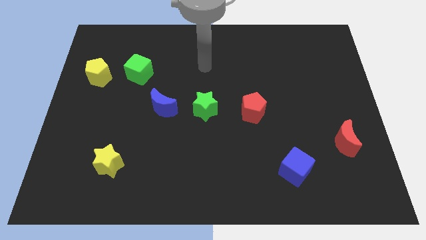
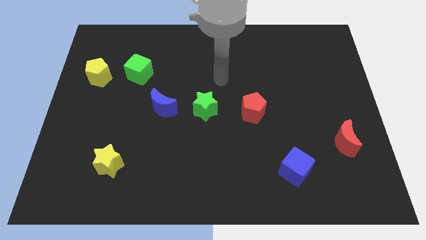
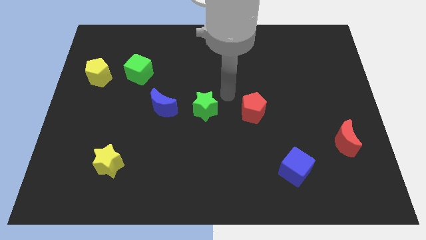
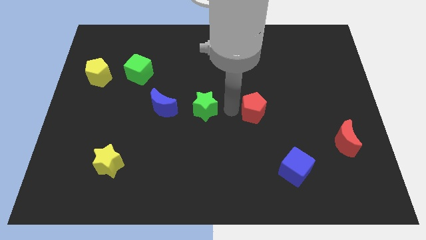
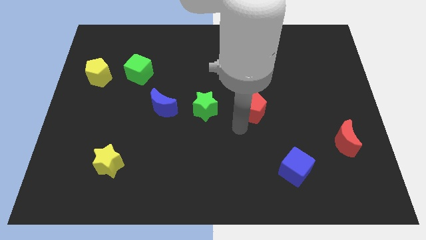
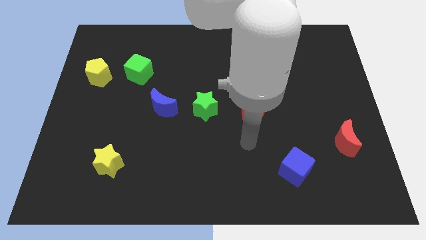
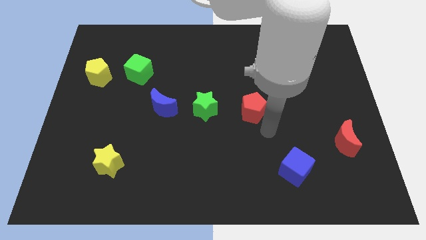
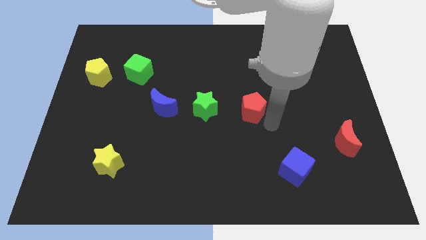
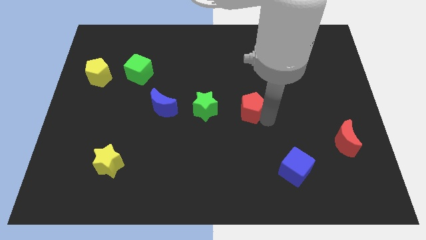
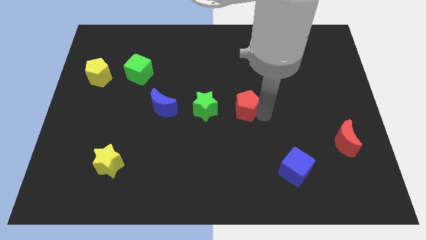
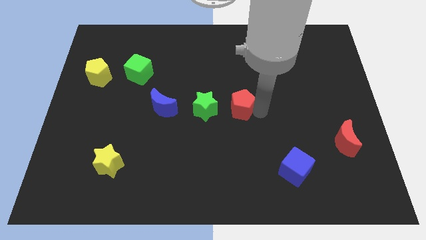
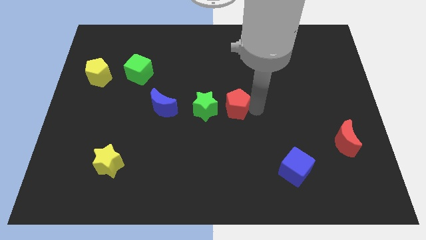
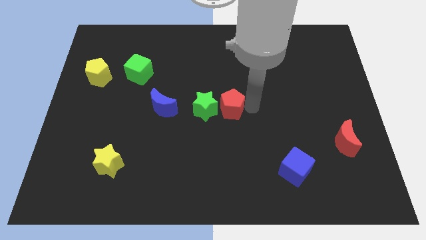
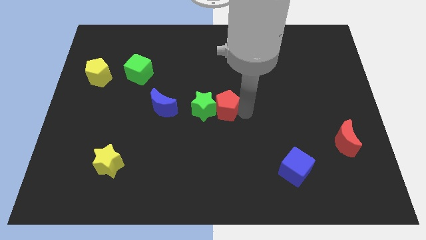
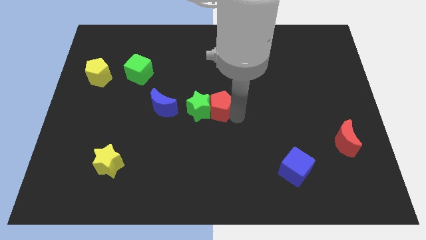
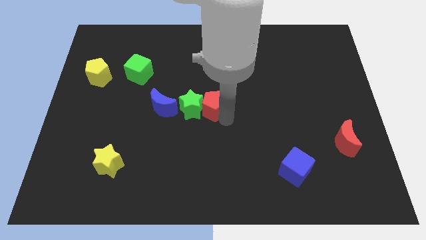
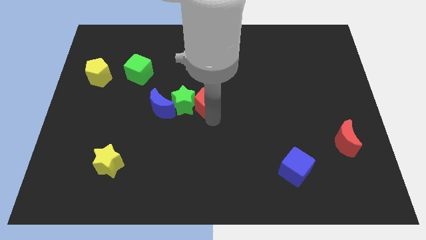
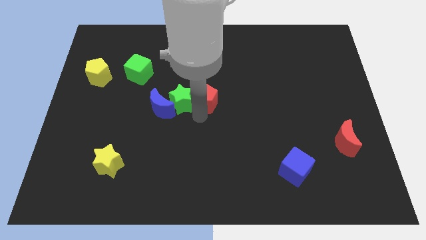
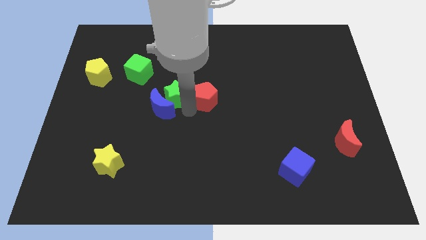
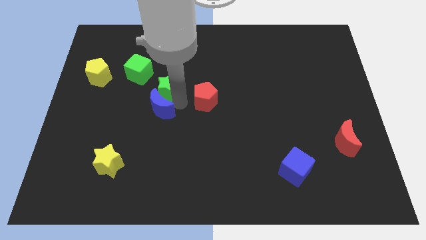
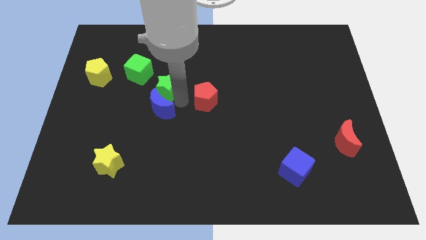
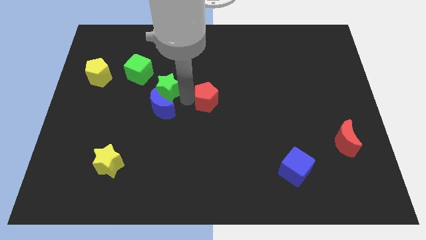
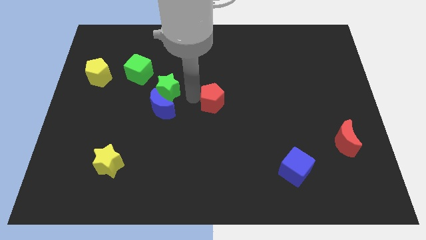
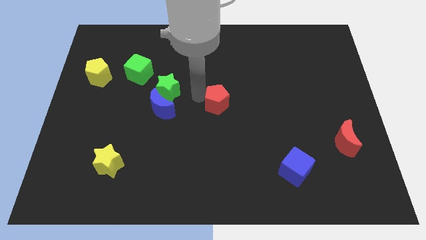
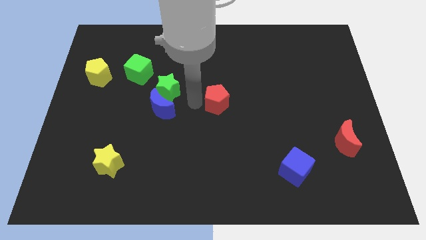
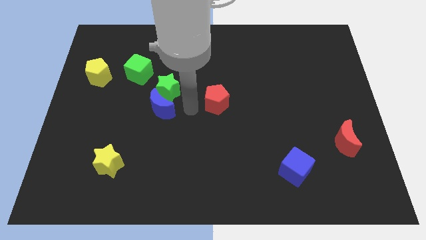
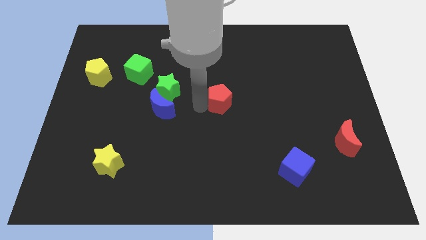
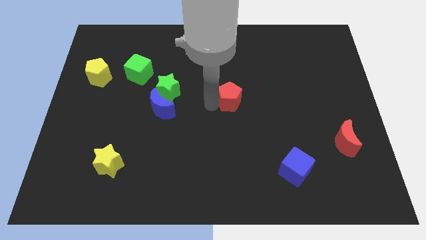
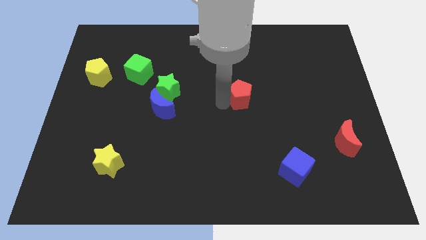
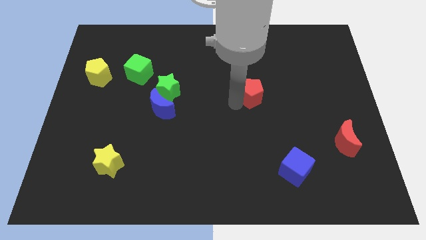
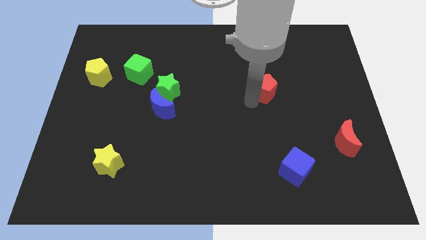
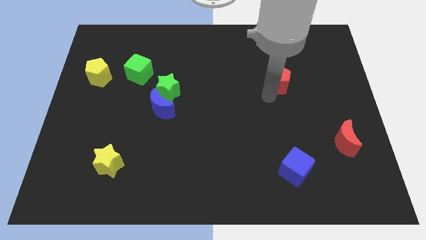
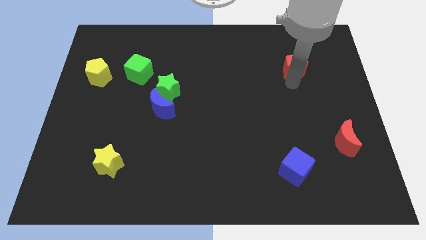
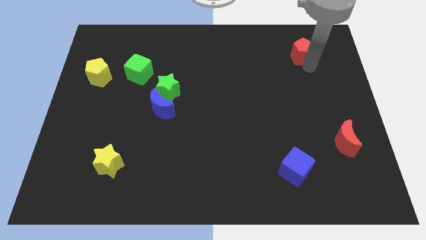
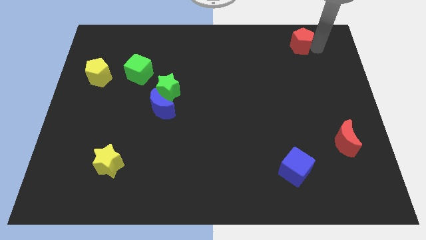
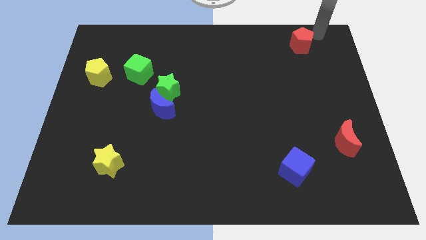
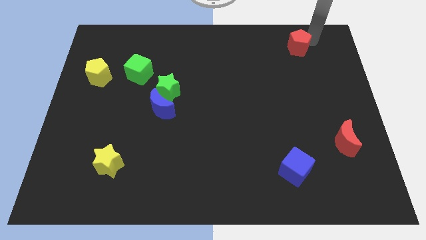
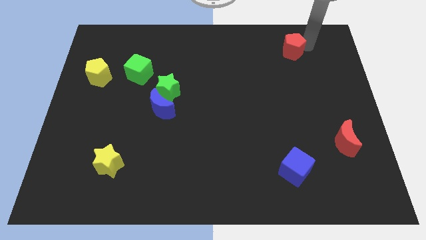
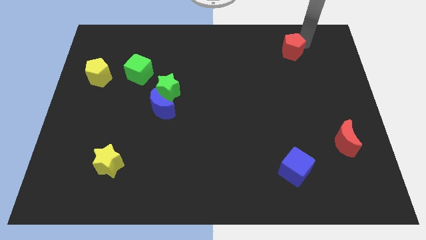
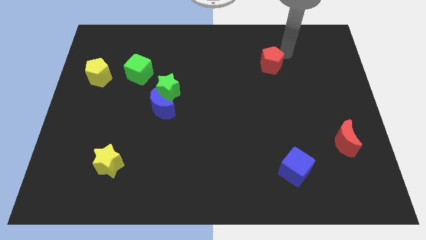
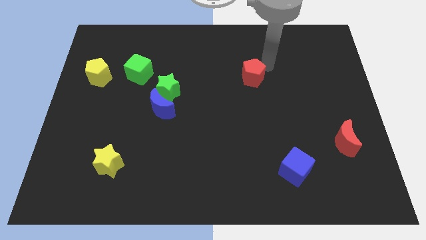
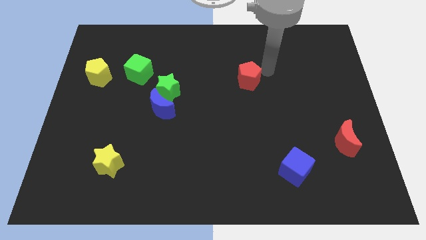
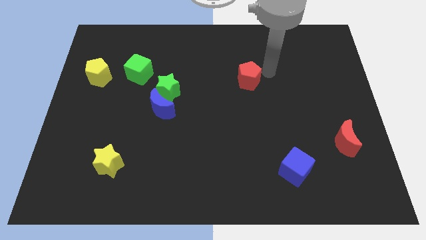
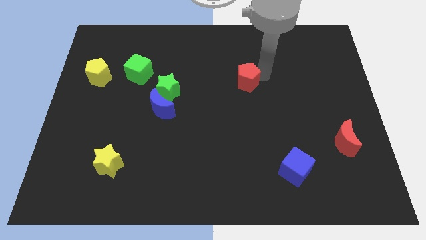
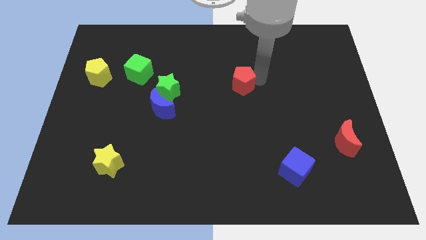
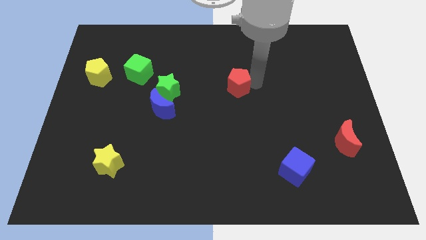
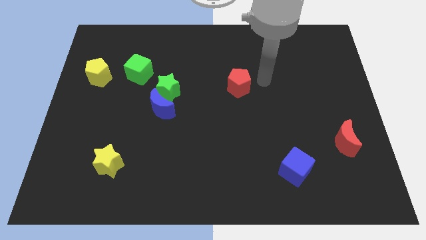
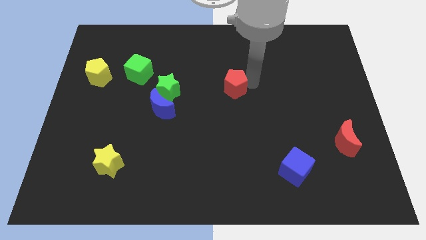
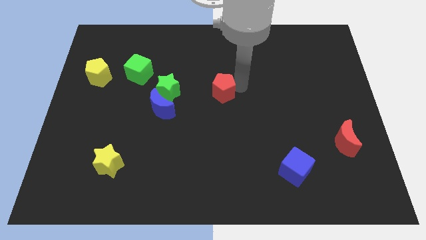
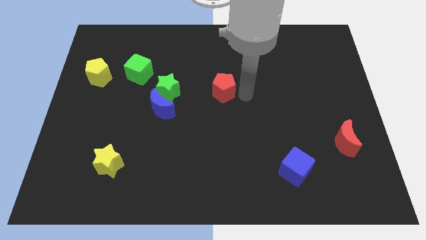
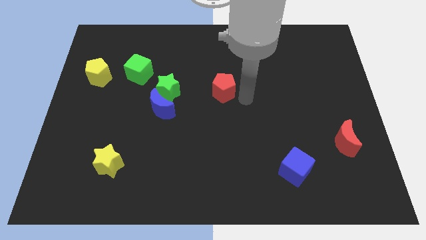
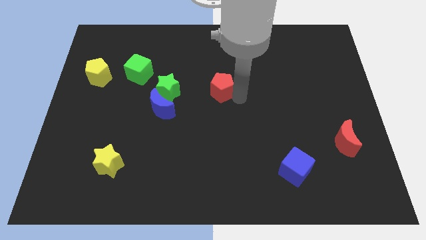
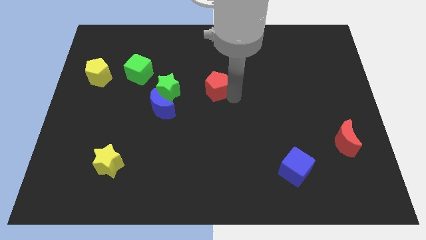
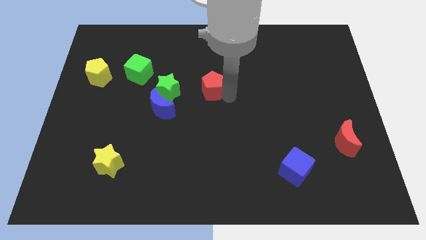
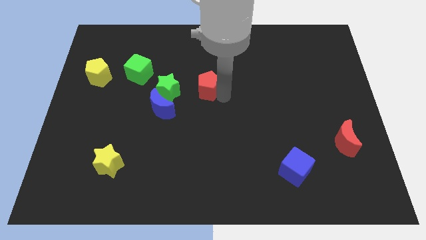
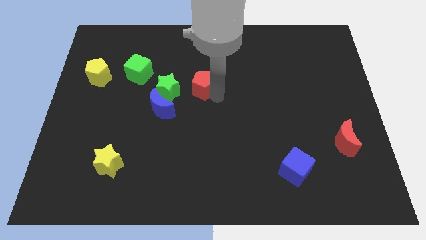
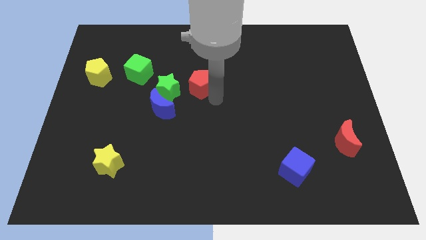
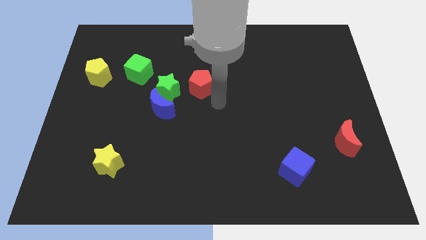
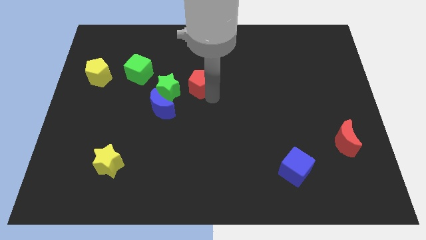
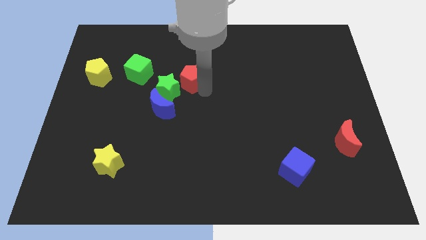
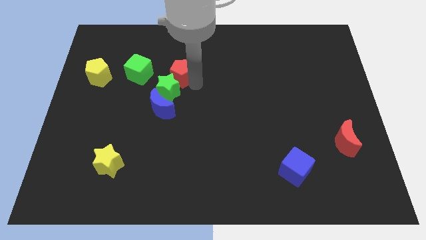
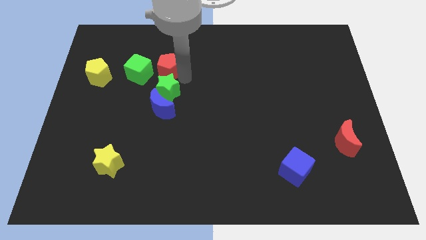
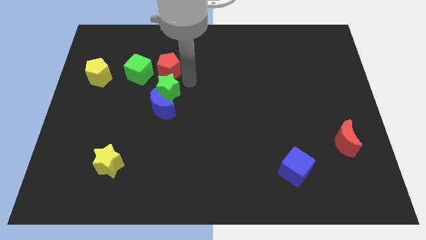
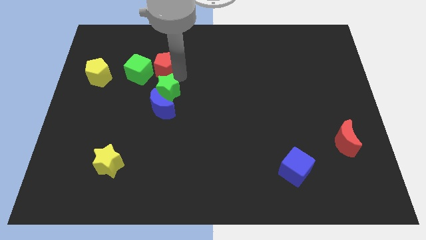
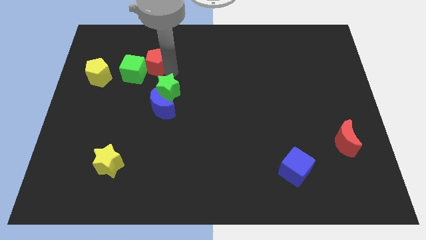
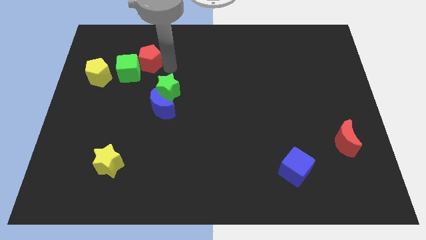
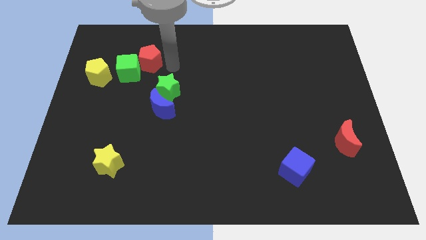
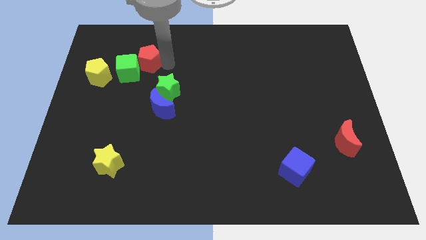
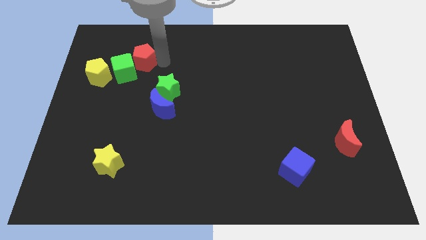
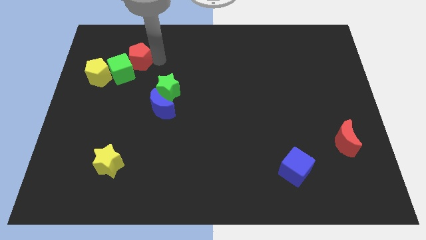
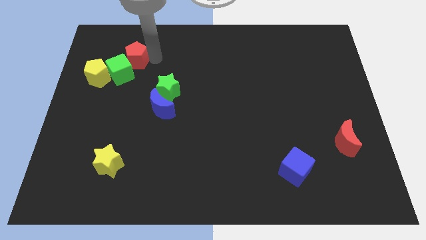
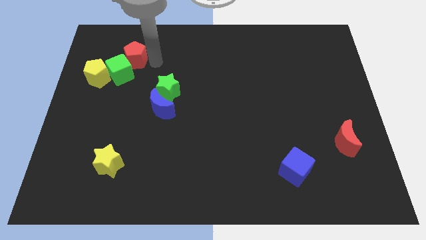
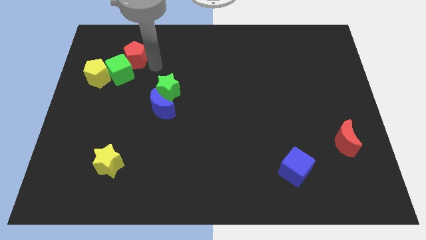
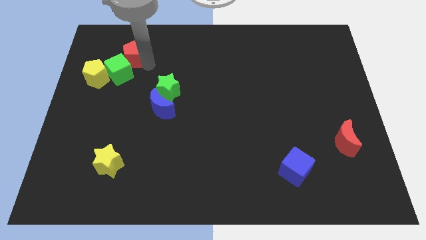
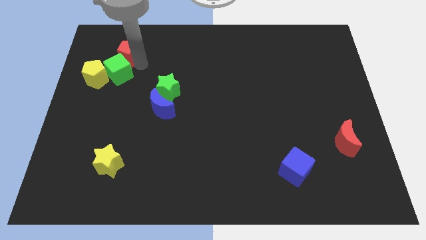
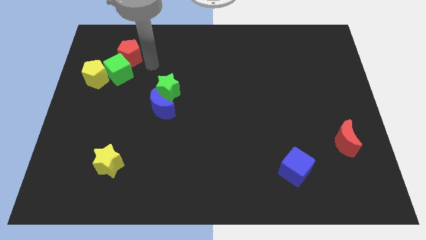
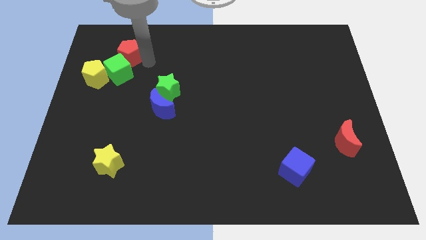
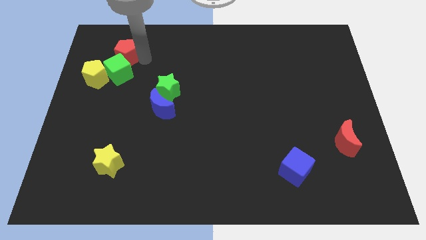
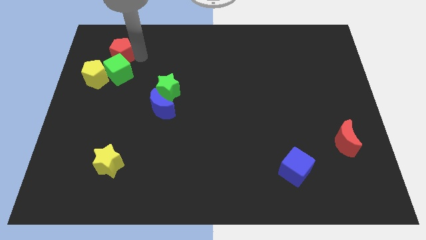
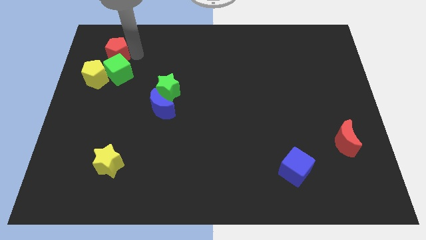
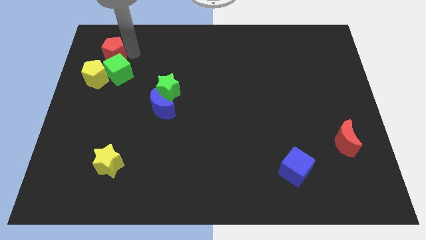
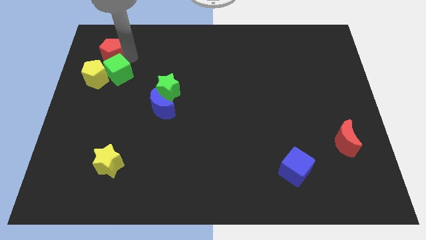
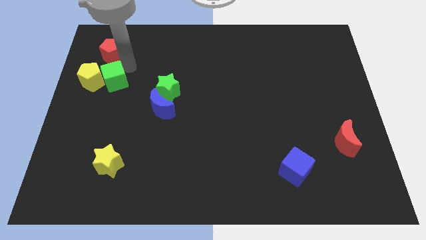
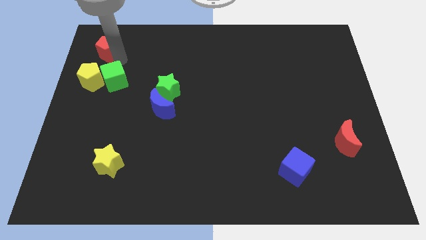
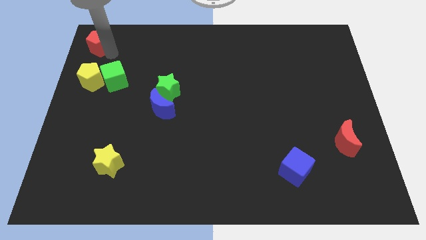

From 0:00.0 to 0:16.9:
move the red pentagon to the top left of the board
